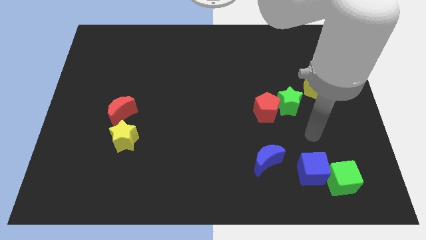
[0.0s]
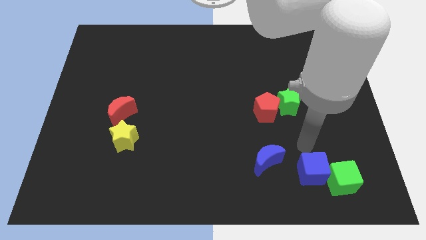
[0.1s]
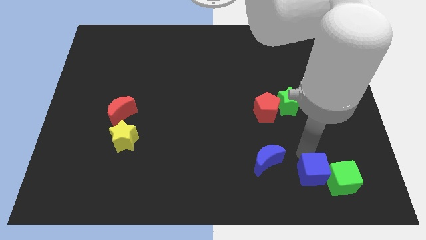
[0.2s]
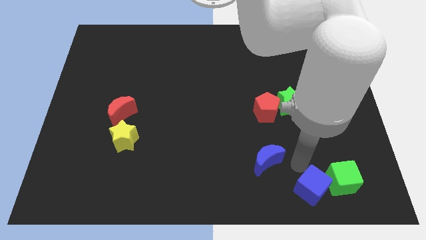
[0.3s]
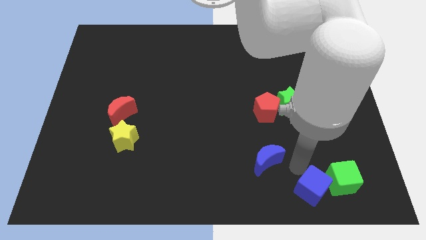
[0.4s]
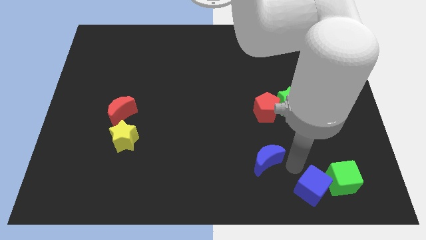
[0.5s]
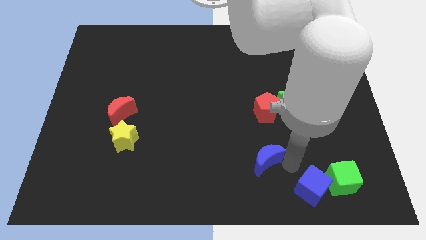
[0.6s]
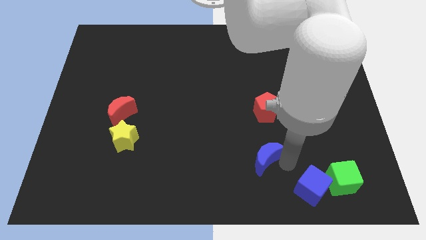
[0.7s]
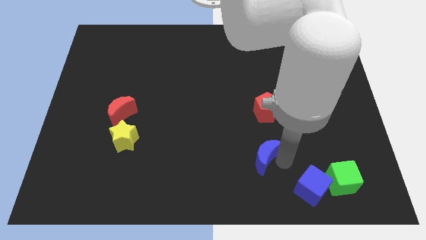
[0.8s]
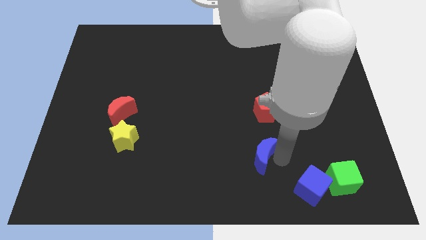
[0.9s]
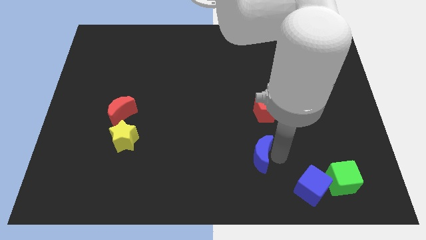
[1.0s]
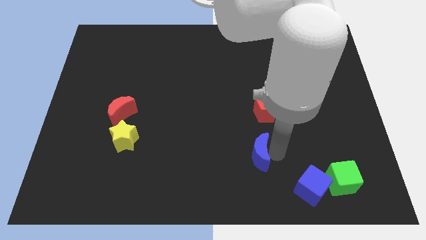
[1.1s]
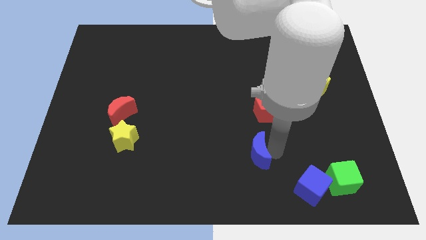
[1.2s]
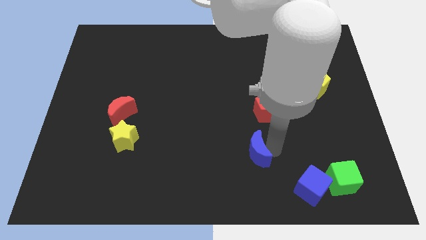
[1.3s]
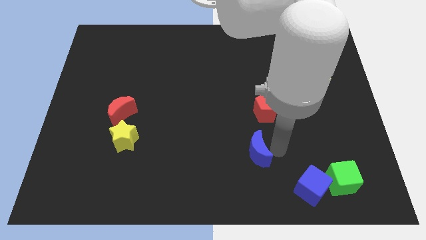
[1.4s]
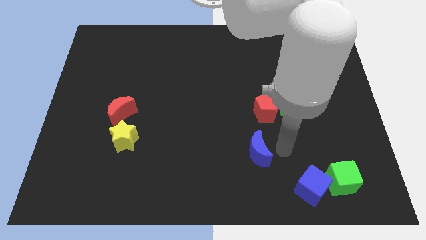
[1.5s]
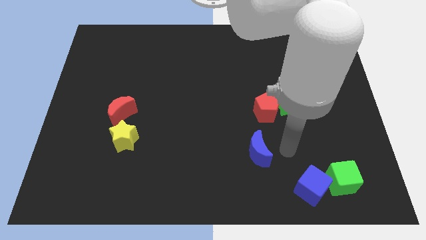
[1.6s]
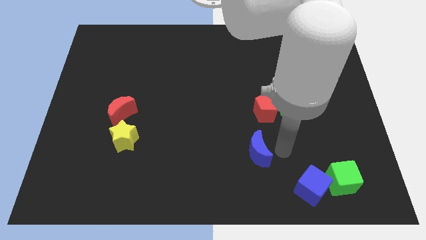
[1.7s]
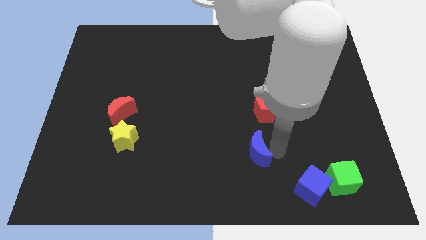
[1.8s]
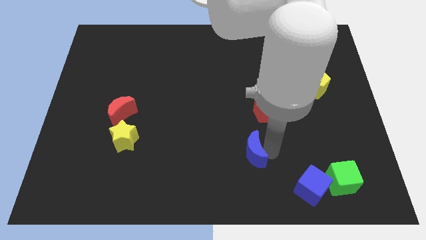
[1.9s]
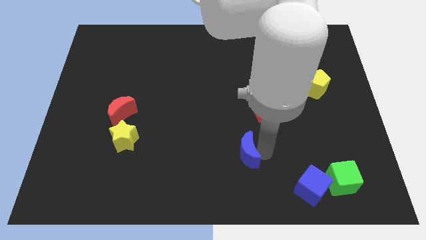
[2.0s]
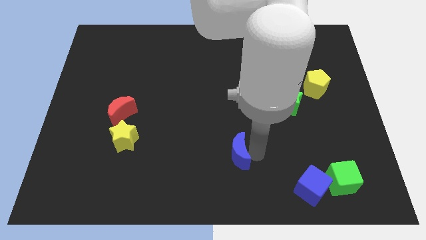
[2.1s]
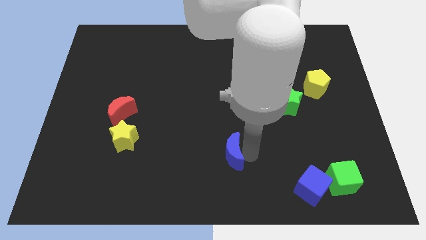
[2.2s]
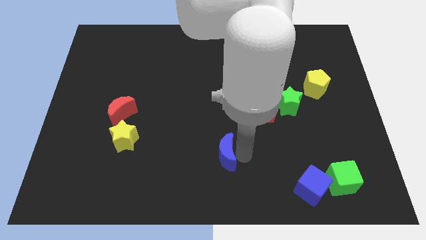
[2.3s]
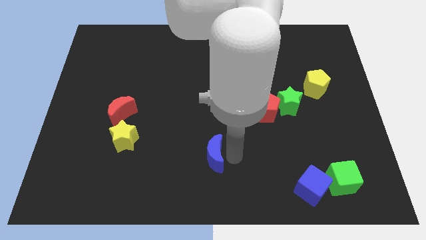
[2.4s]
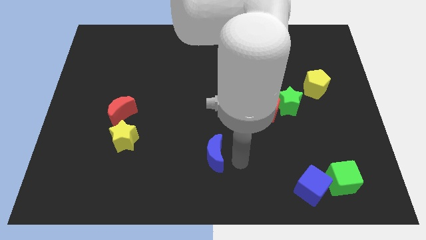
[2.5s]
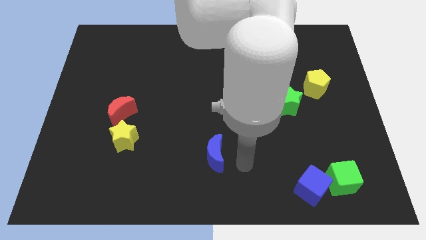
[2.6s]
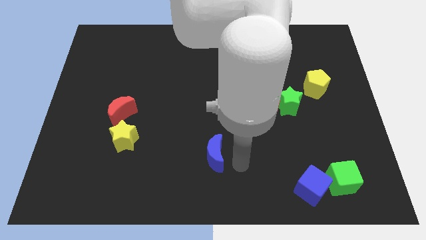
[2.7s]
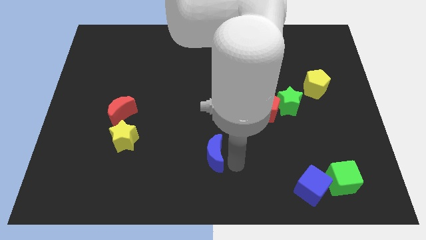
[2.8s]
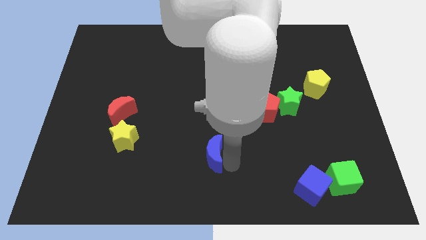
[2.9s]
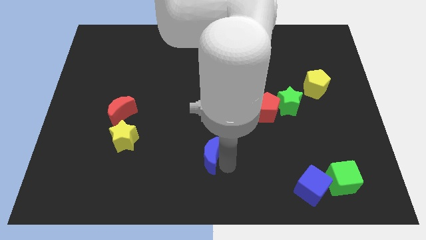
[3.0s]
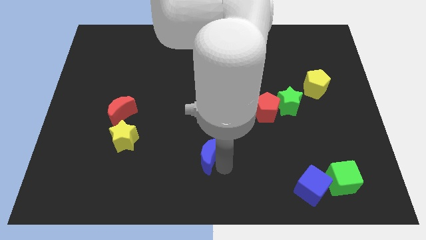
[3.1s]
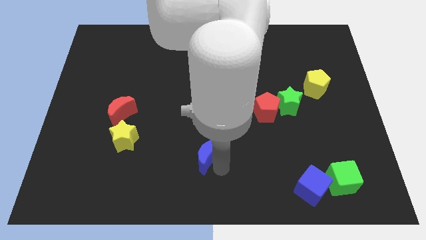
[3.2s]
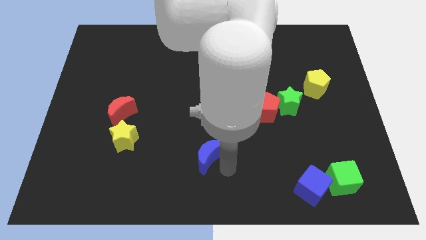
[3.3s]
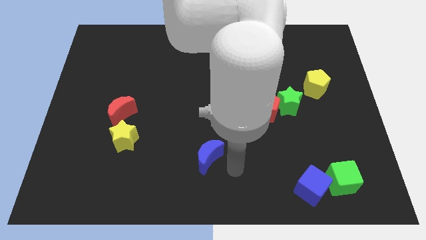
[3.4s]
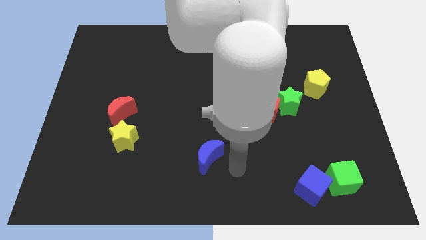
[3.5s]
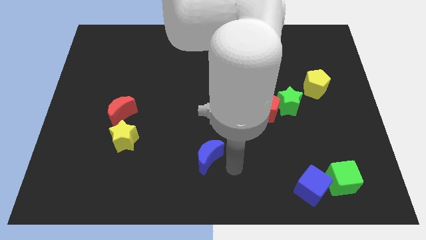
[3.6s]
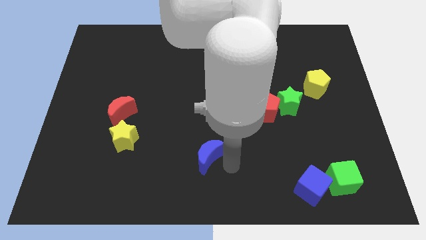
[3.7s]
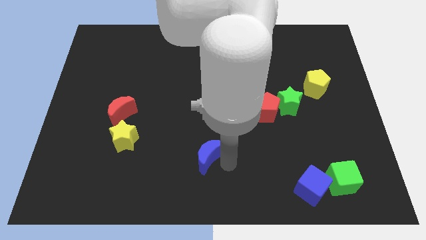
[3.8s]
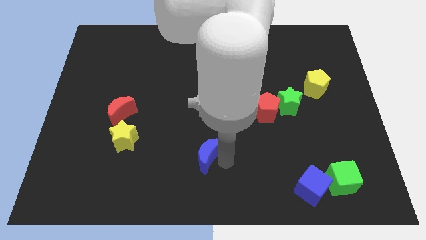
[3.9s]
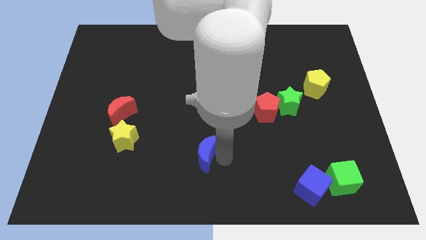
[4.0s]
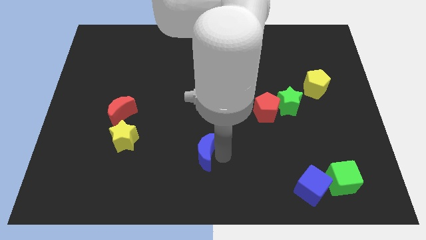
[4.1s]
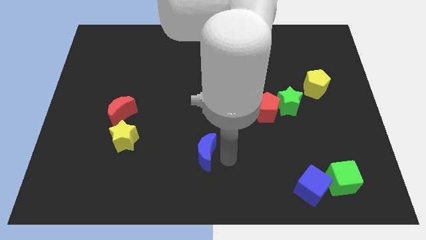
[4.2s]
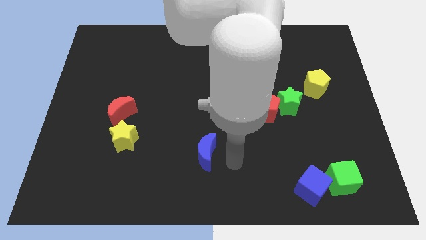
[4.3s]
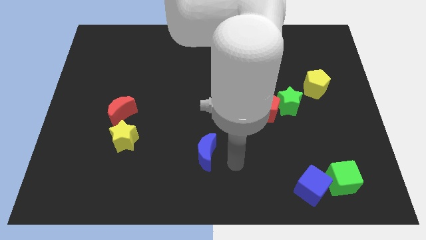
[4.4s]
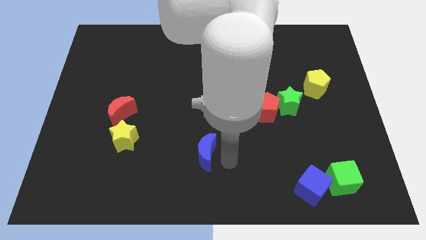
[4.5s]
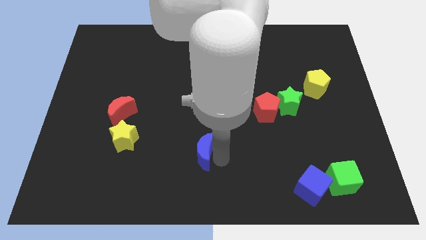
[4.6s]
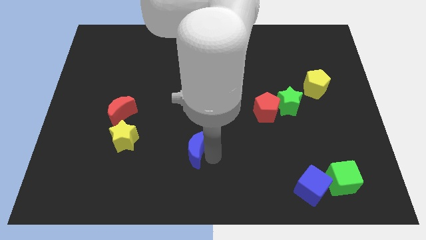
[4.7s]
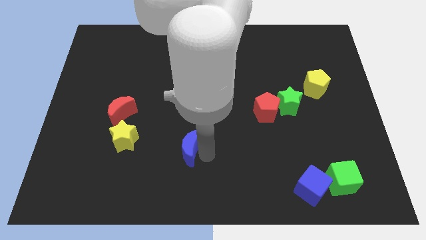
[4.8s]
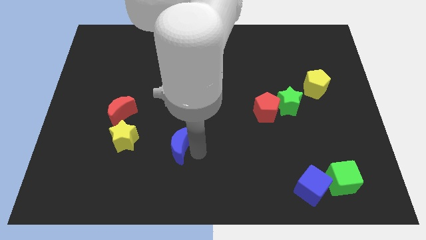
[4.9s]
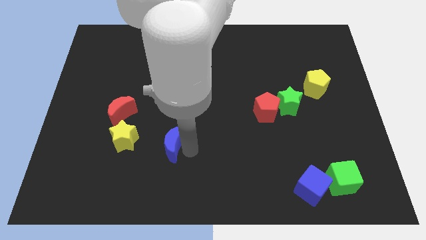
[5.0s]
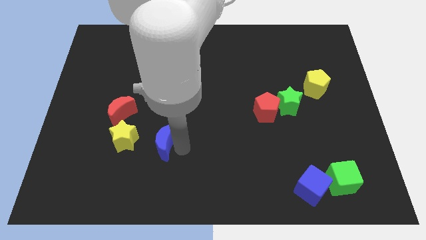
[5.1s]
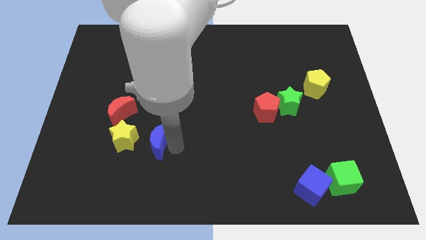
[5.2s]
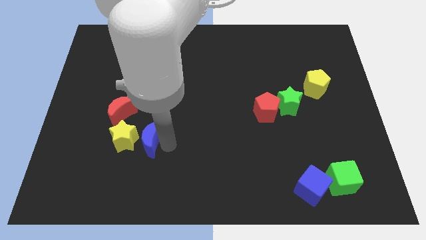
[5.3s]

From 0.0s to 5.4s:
move the blue moon close to the yellow star

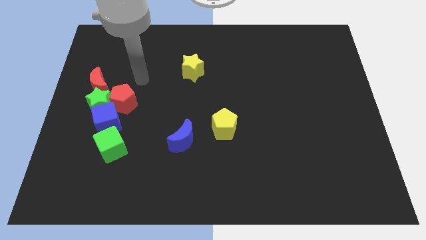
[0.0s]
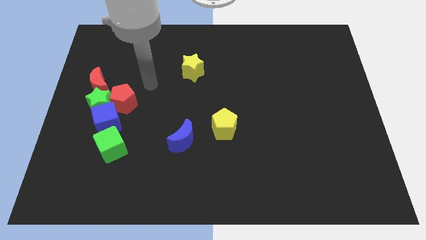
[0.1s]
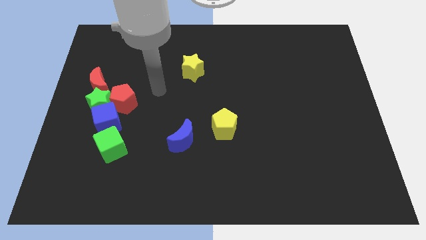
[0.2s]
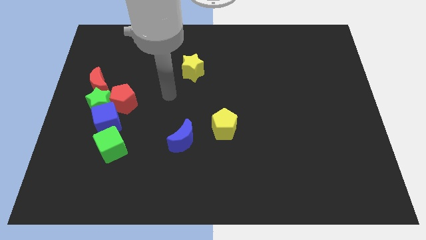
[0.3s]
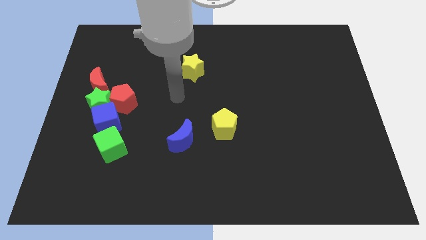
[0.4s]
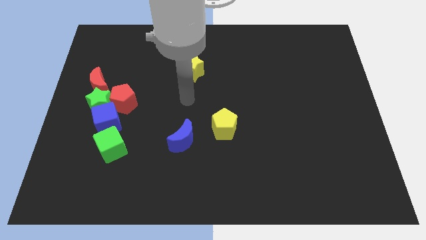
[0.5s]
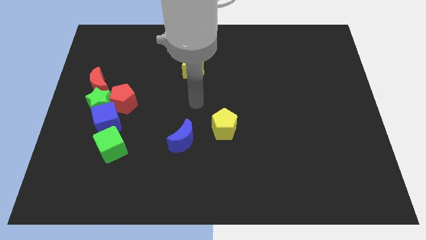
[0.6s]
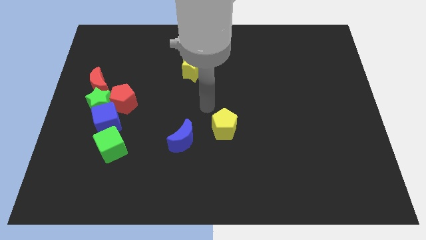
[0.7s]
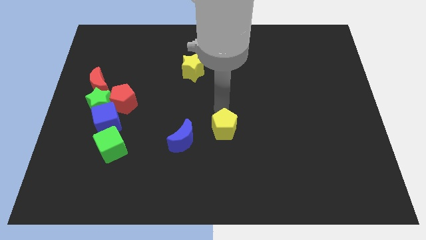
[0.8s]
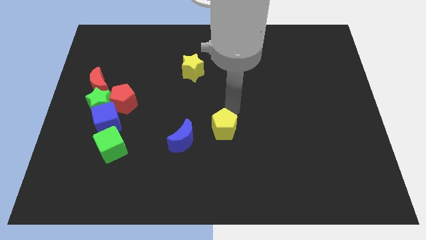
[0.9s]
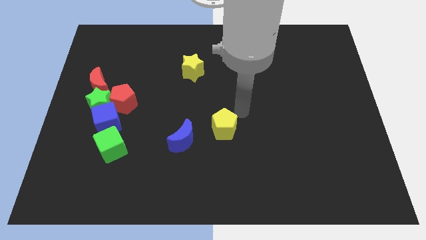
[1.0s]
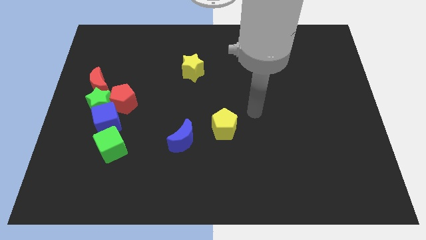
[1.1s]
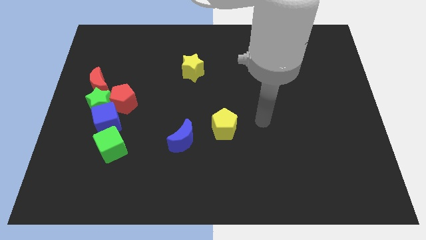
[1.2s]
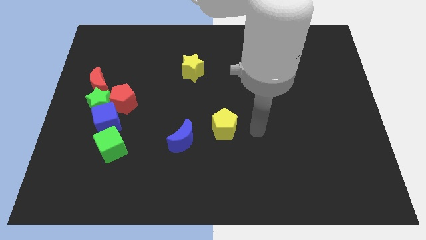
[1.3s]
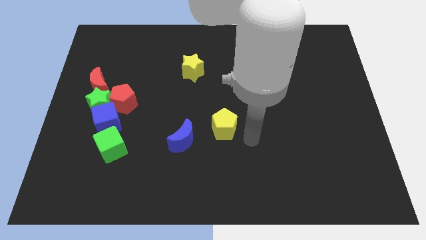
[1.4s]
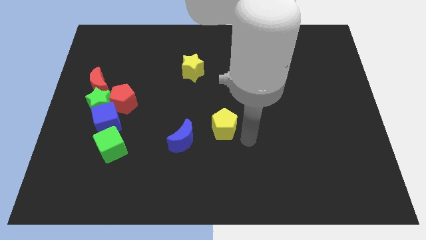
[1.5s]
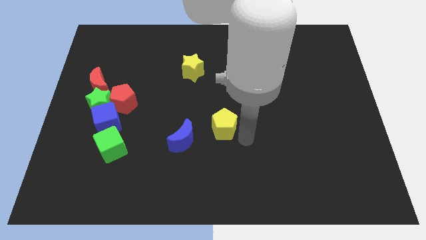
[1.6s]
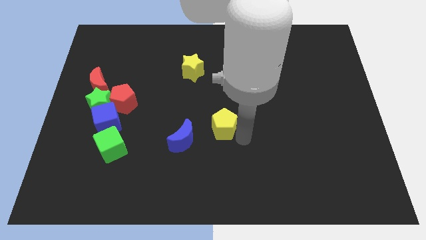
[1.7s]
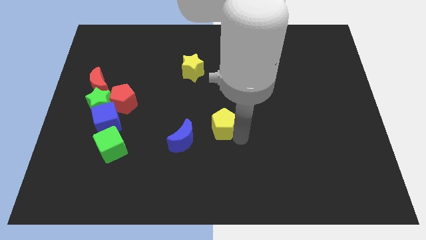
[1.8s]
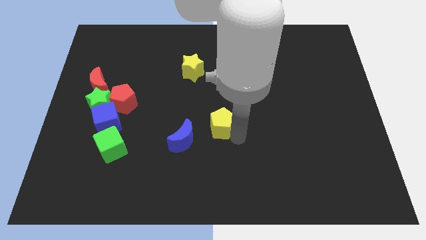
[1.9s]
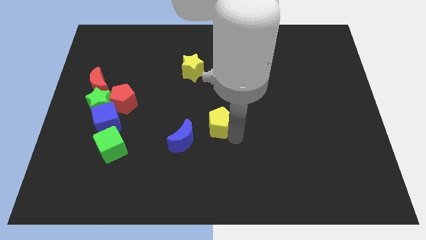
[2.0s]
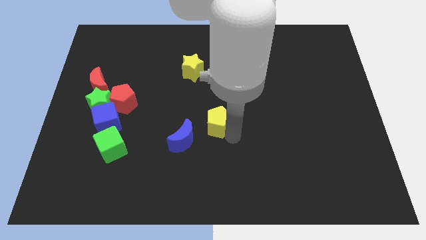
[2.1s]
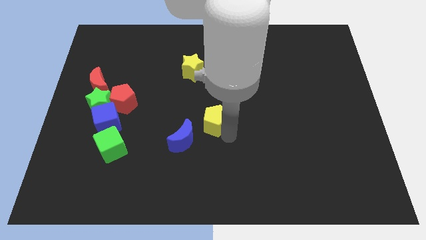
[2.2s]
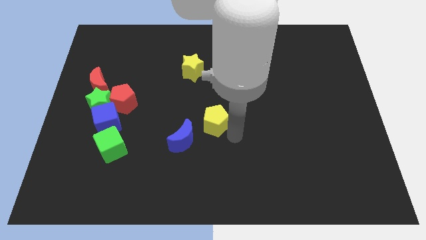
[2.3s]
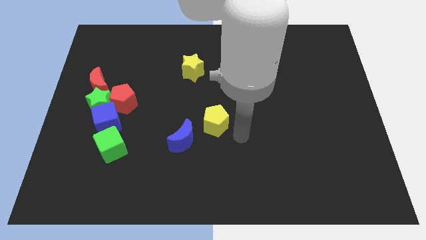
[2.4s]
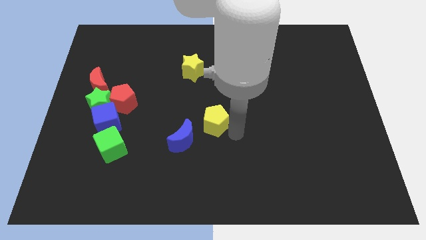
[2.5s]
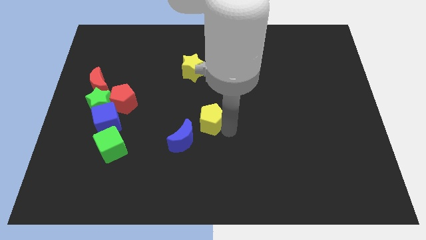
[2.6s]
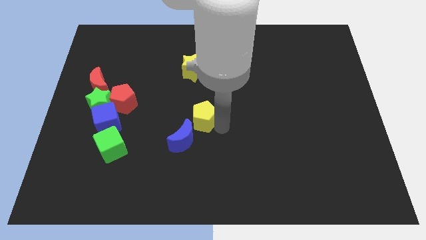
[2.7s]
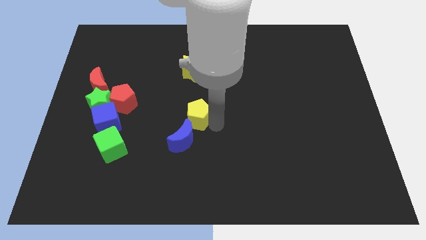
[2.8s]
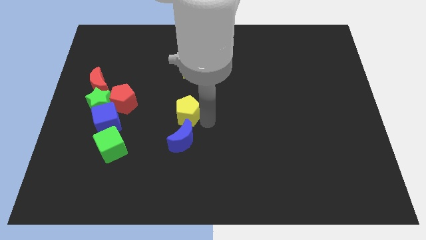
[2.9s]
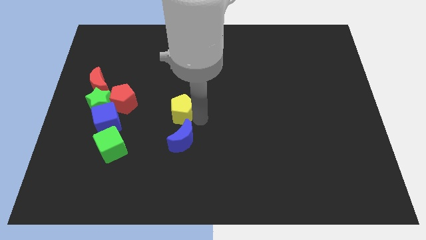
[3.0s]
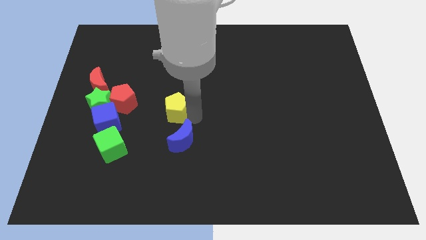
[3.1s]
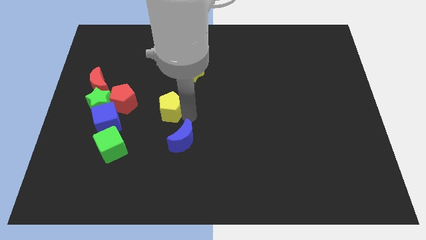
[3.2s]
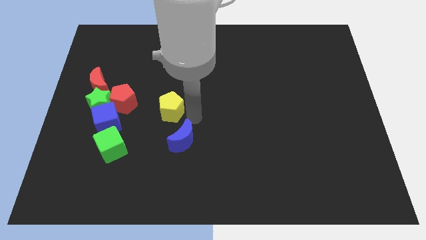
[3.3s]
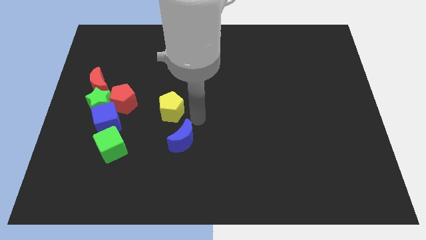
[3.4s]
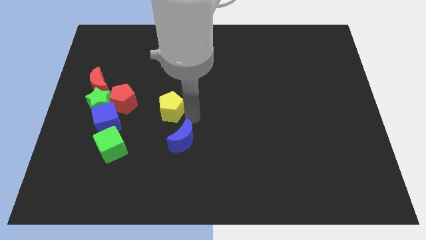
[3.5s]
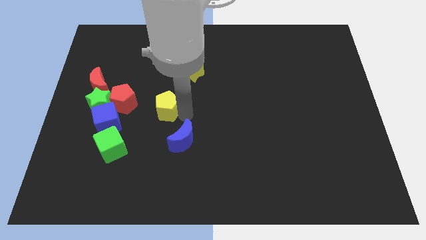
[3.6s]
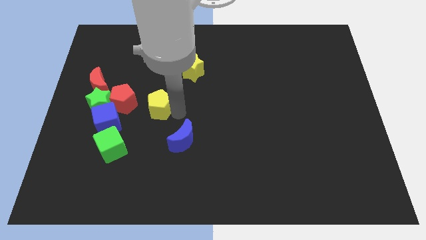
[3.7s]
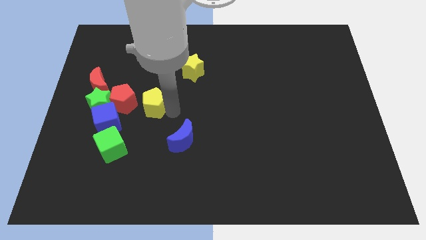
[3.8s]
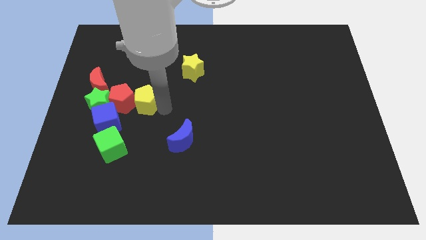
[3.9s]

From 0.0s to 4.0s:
move the yellow pentagon next to the red pentagon
